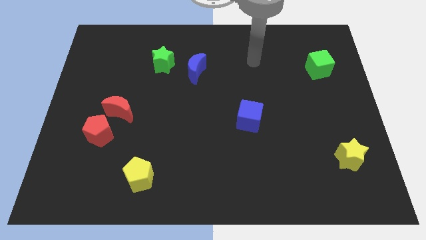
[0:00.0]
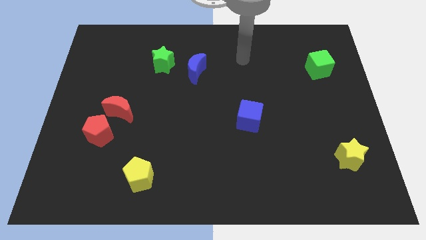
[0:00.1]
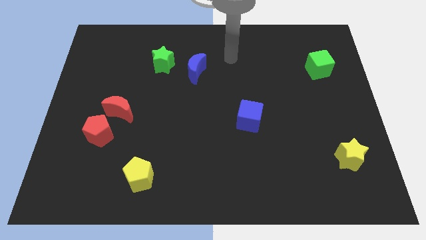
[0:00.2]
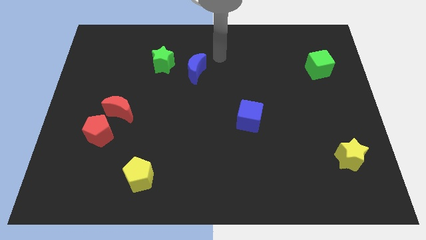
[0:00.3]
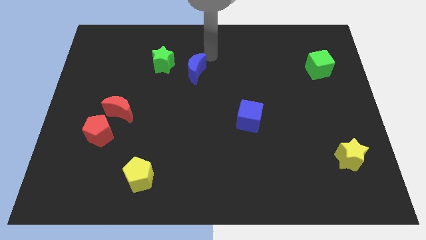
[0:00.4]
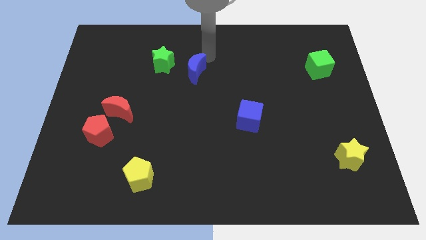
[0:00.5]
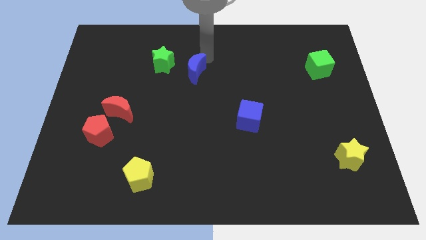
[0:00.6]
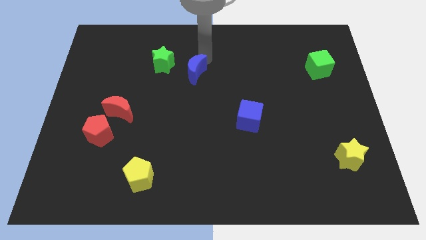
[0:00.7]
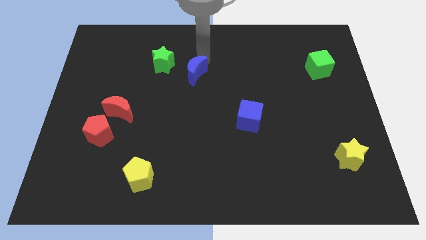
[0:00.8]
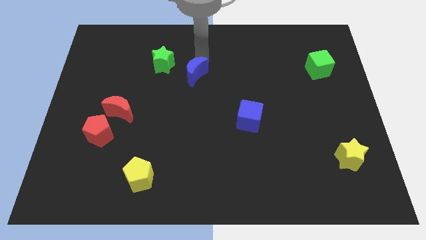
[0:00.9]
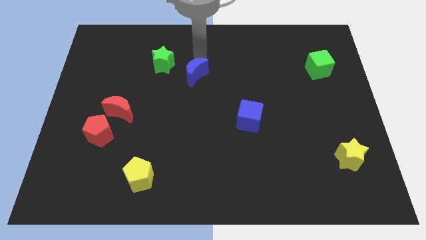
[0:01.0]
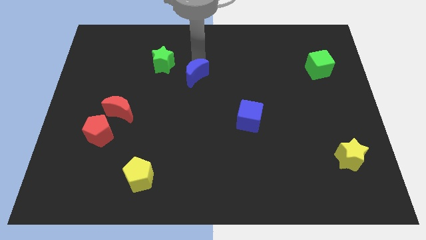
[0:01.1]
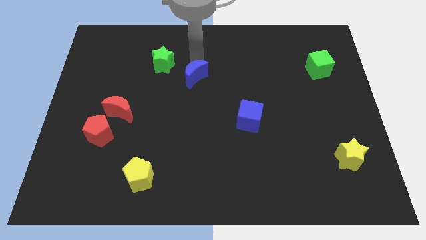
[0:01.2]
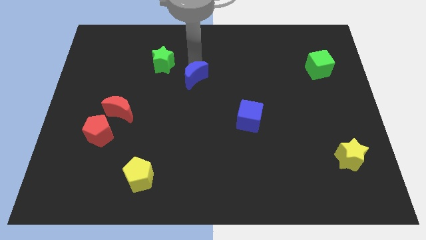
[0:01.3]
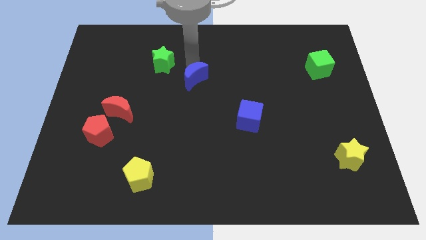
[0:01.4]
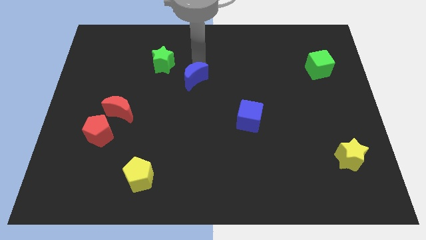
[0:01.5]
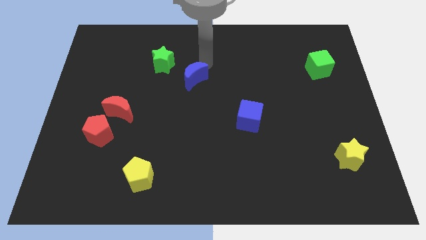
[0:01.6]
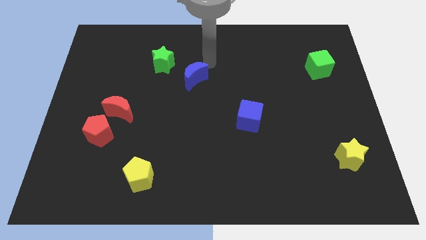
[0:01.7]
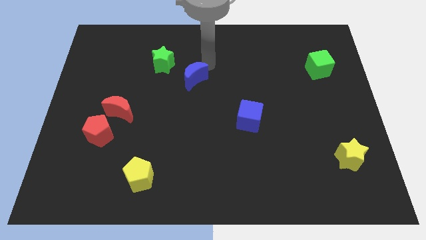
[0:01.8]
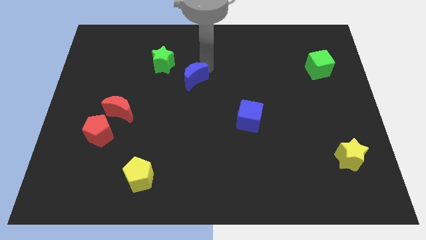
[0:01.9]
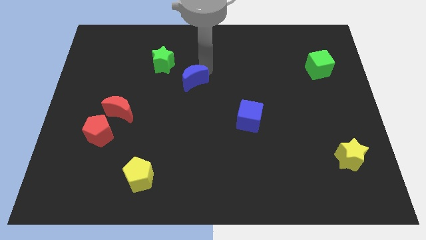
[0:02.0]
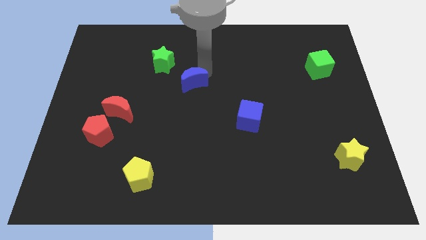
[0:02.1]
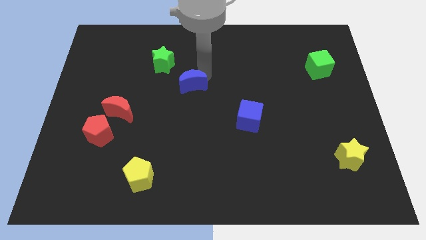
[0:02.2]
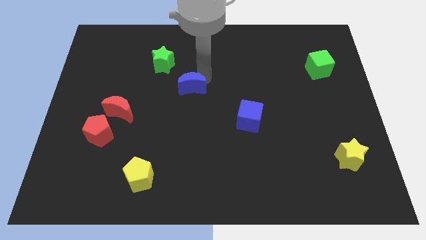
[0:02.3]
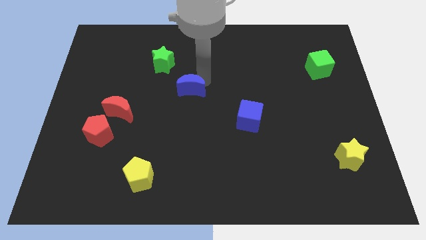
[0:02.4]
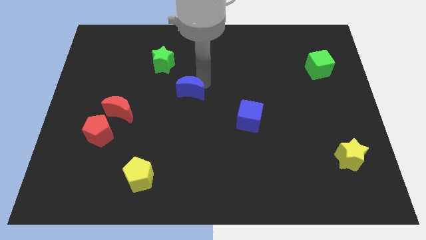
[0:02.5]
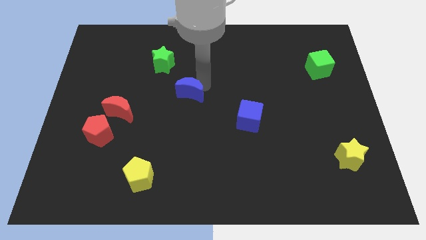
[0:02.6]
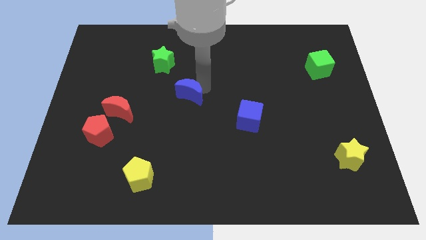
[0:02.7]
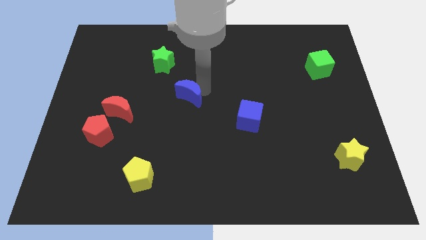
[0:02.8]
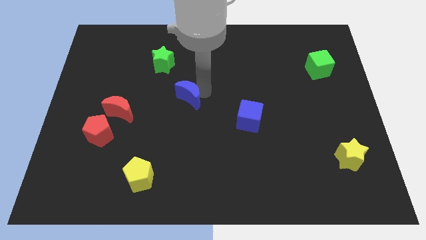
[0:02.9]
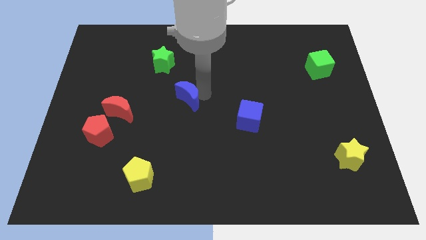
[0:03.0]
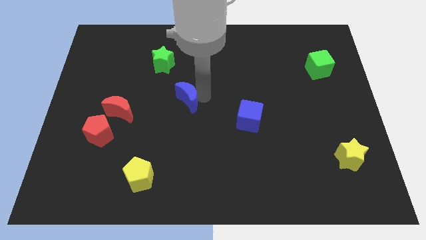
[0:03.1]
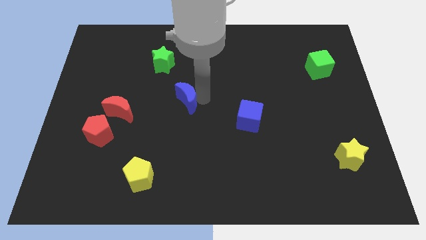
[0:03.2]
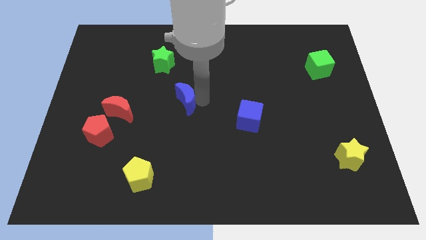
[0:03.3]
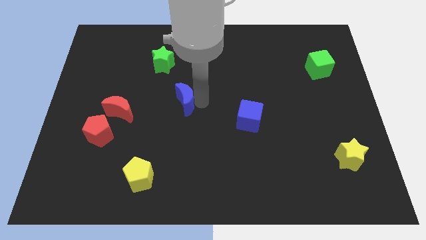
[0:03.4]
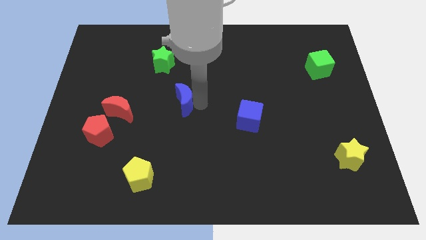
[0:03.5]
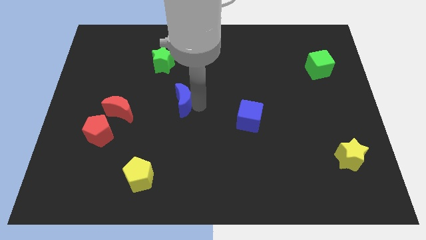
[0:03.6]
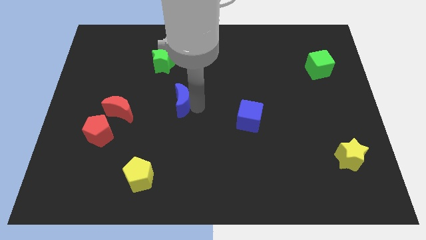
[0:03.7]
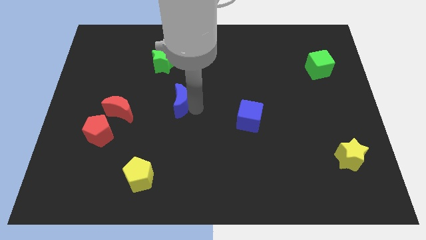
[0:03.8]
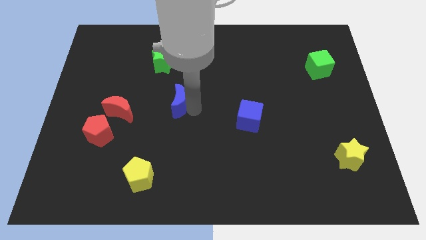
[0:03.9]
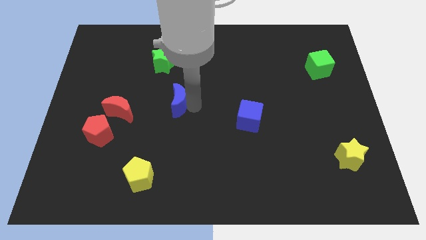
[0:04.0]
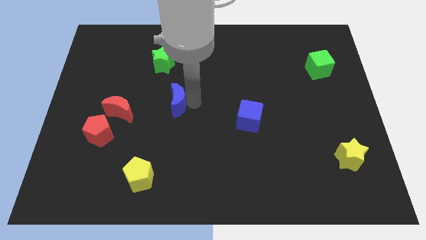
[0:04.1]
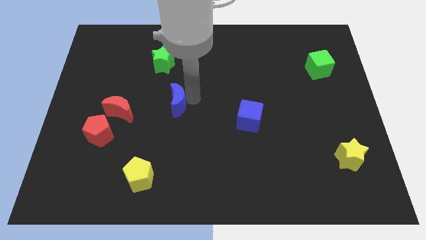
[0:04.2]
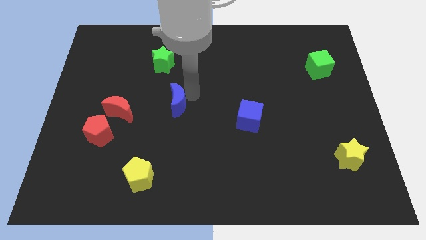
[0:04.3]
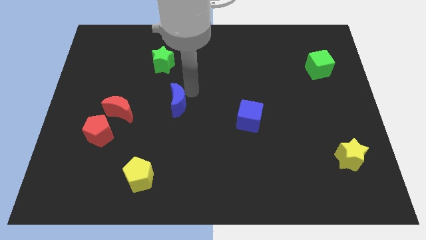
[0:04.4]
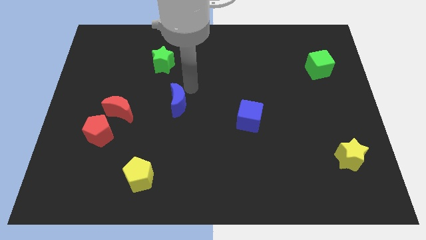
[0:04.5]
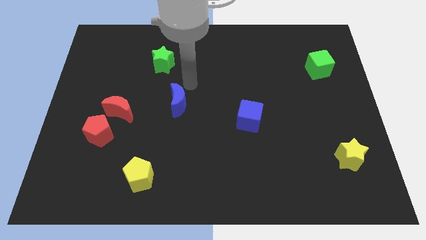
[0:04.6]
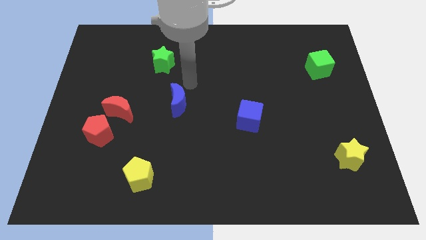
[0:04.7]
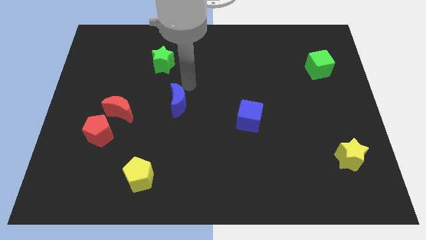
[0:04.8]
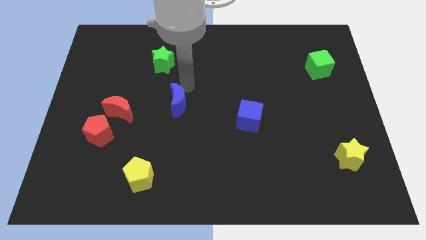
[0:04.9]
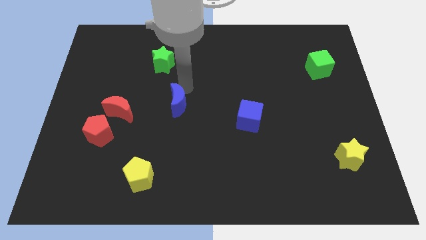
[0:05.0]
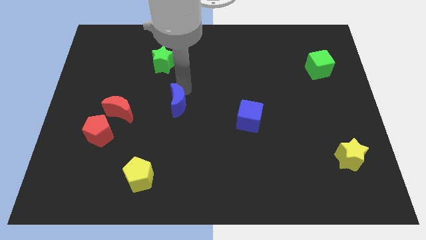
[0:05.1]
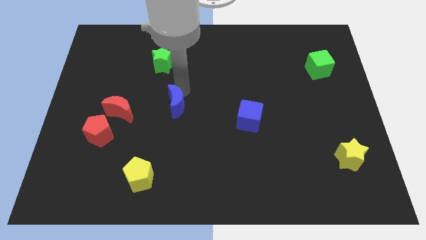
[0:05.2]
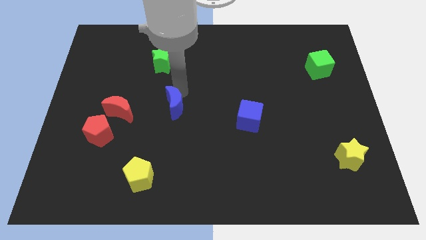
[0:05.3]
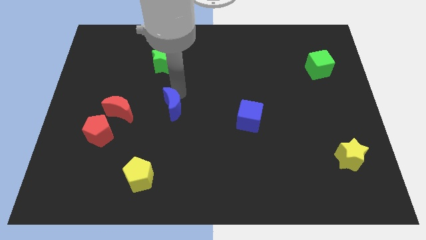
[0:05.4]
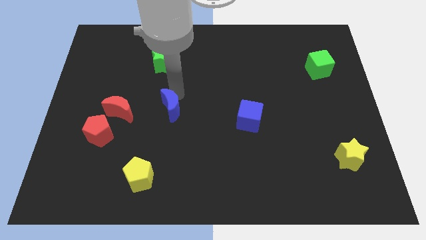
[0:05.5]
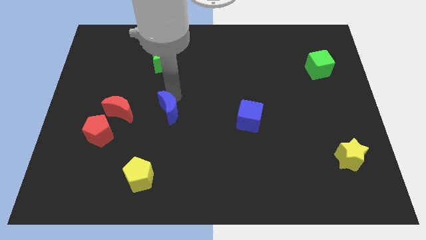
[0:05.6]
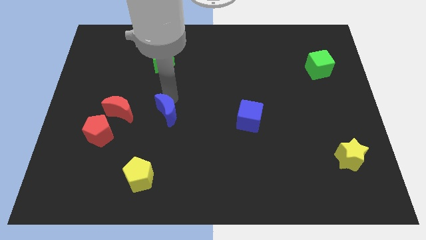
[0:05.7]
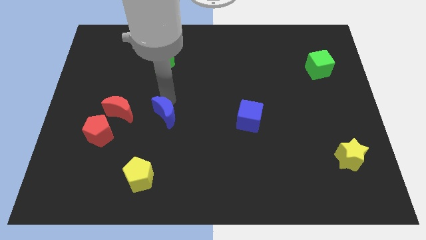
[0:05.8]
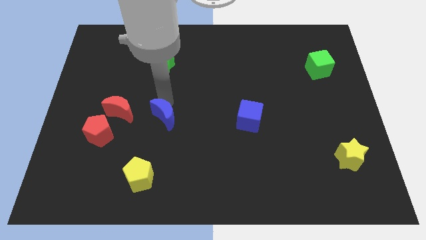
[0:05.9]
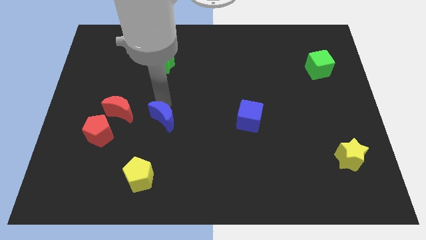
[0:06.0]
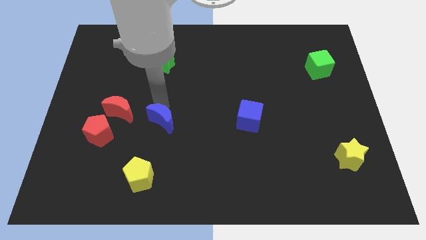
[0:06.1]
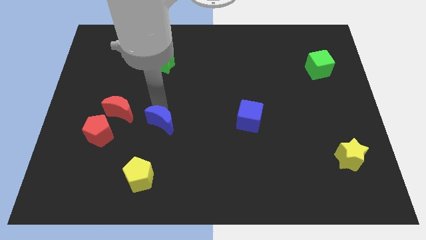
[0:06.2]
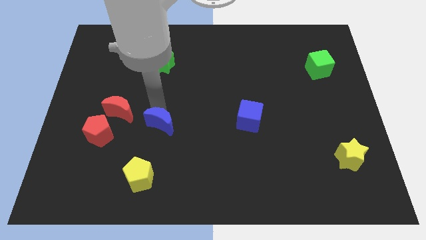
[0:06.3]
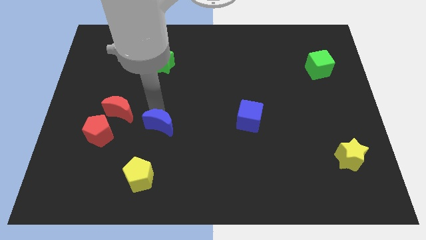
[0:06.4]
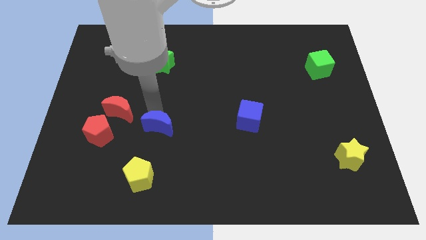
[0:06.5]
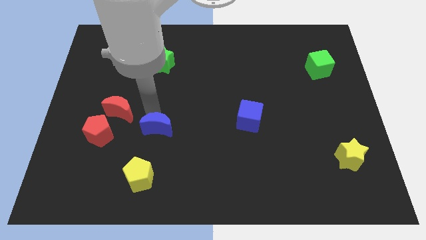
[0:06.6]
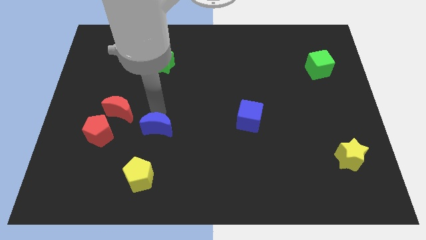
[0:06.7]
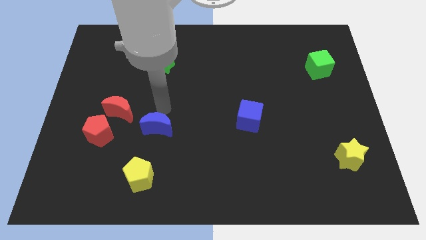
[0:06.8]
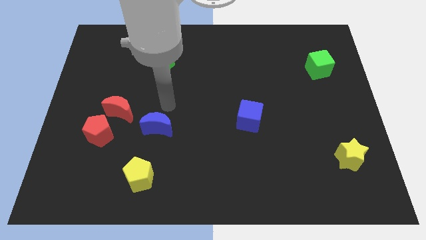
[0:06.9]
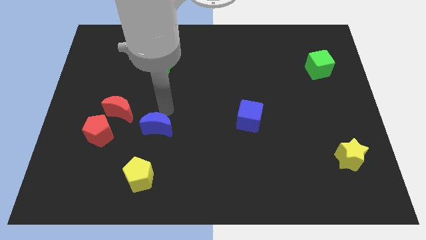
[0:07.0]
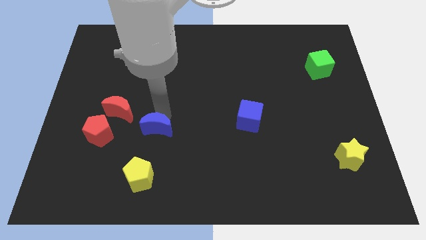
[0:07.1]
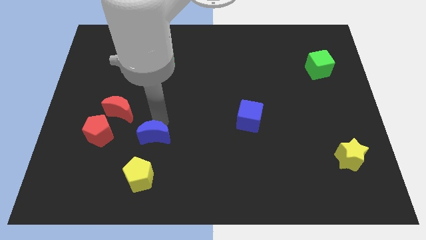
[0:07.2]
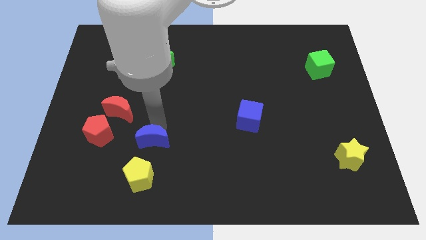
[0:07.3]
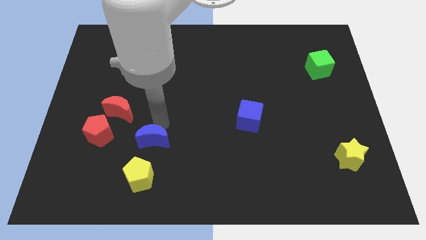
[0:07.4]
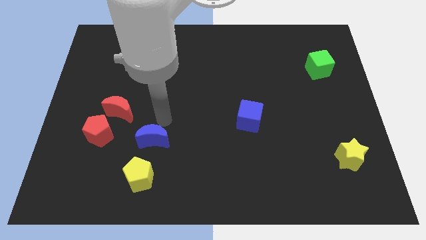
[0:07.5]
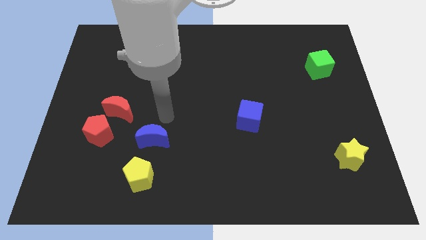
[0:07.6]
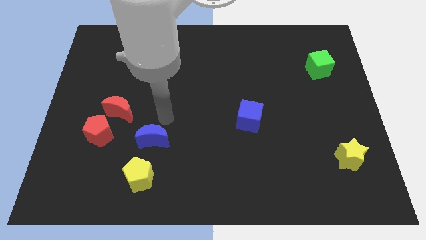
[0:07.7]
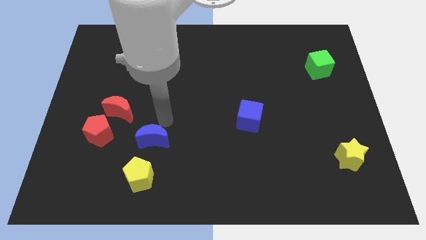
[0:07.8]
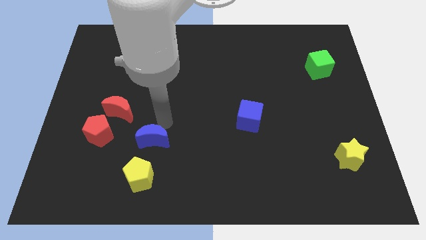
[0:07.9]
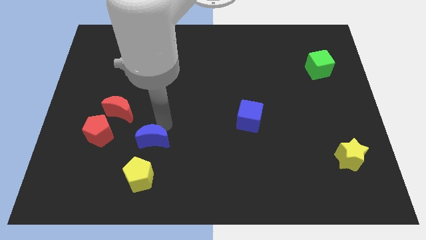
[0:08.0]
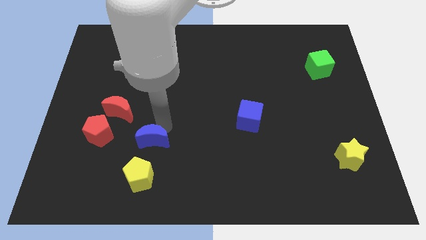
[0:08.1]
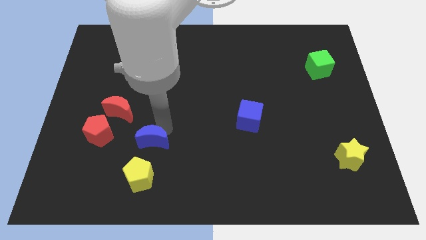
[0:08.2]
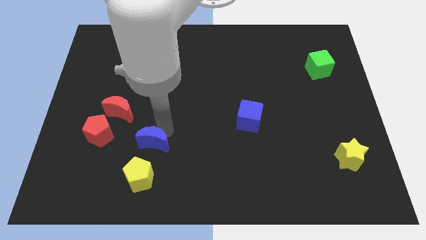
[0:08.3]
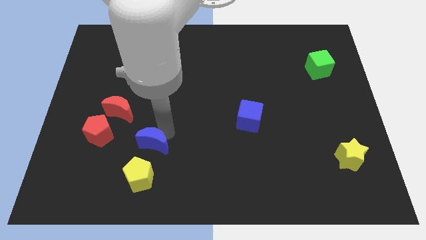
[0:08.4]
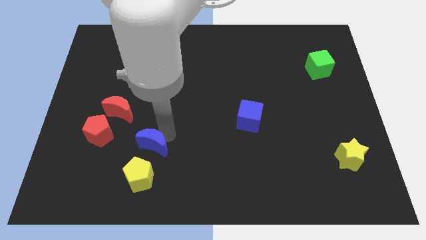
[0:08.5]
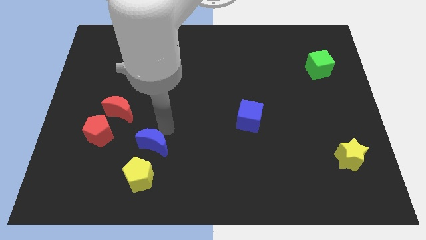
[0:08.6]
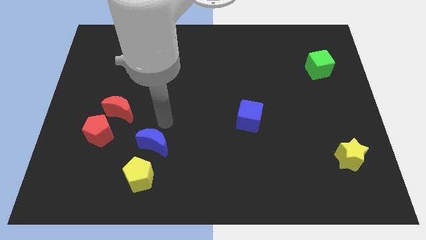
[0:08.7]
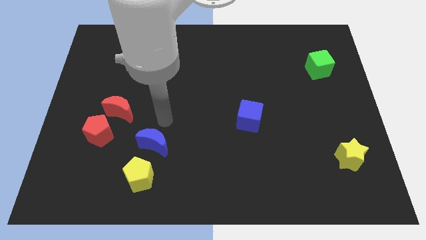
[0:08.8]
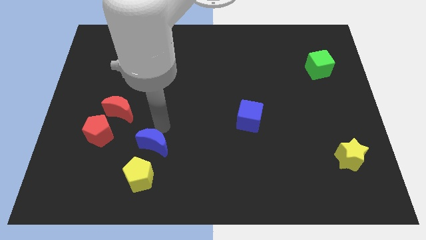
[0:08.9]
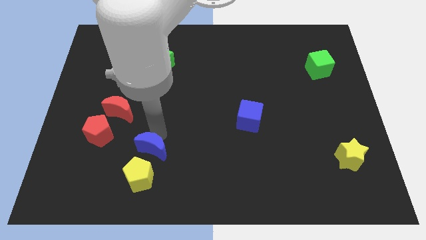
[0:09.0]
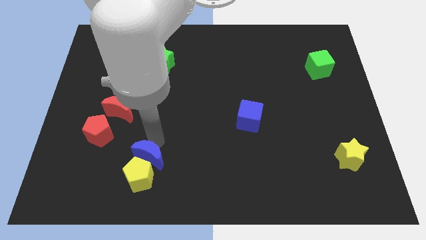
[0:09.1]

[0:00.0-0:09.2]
put the blue moon towards the yellow pentagon
